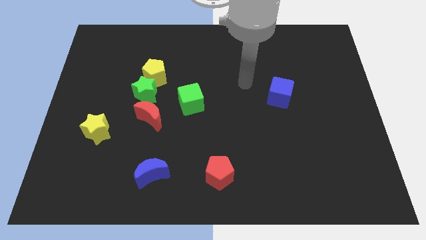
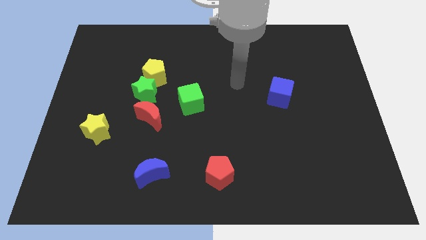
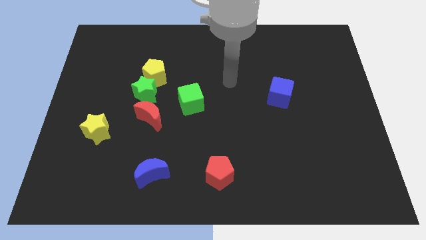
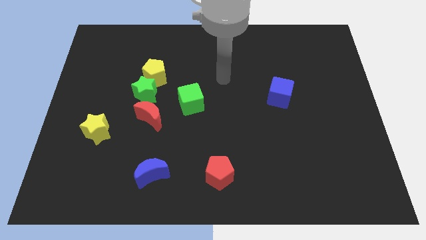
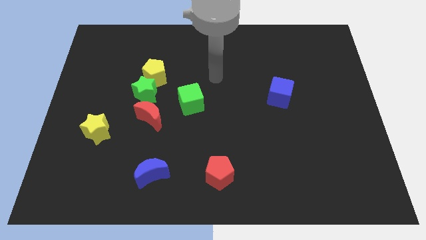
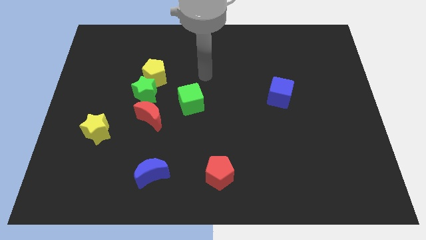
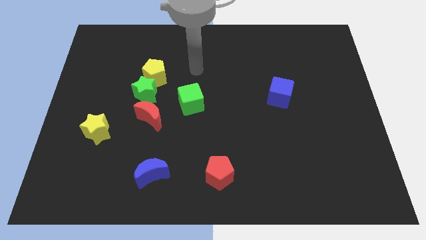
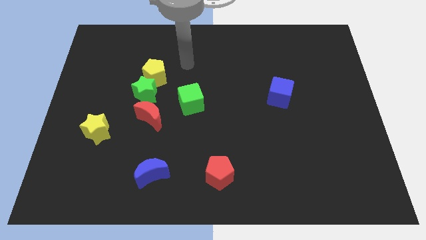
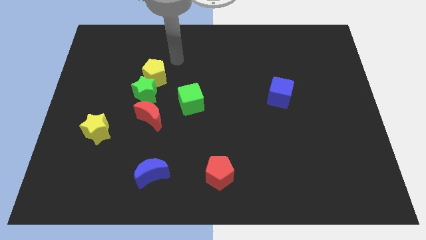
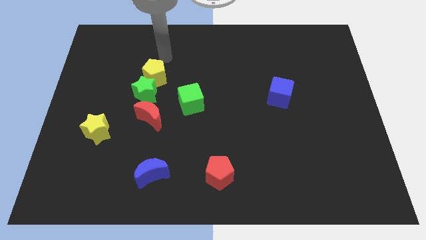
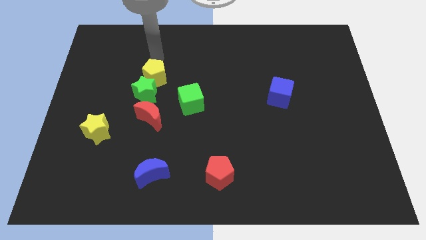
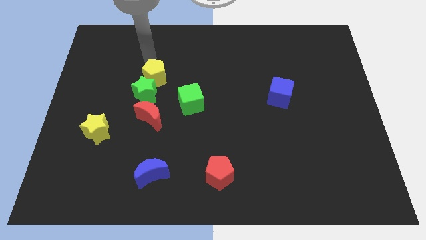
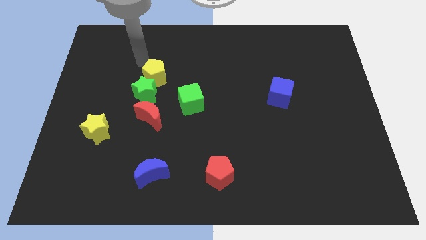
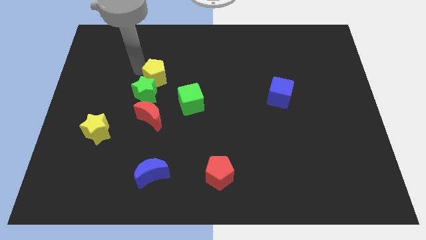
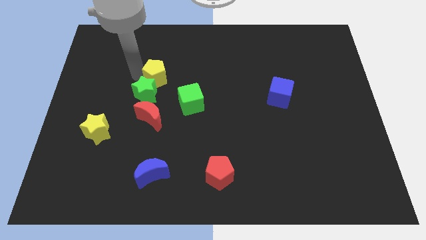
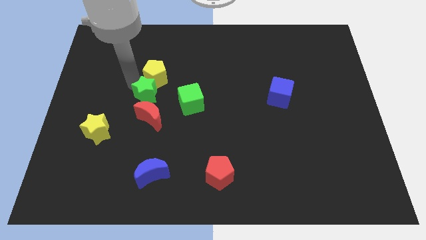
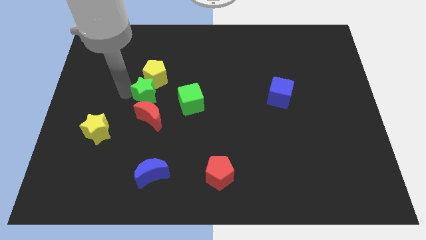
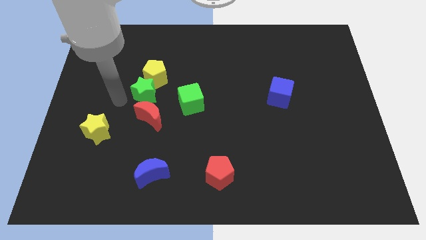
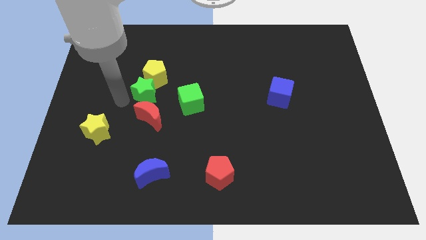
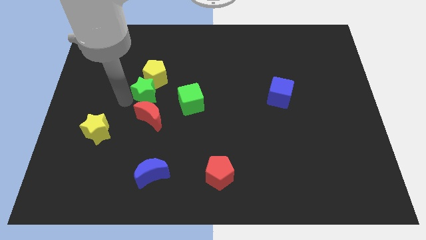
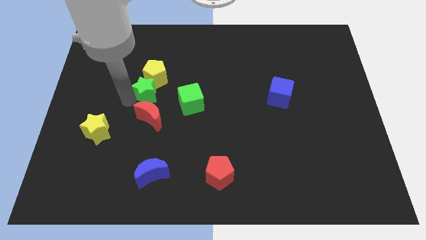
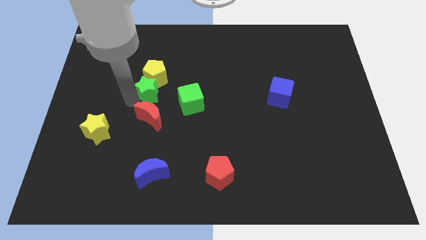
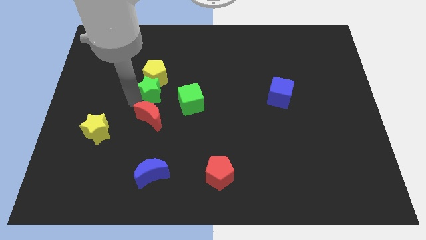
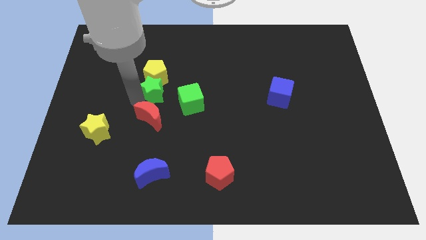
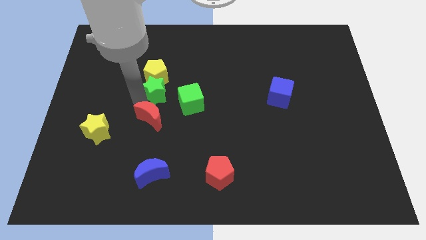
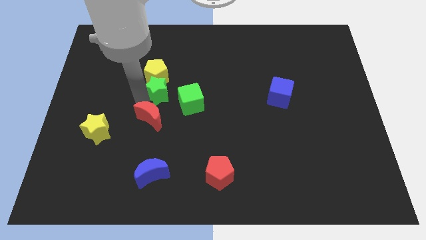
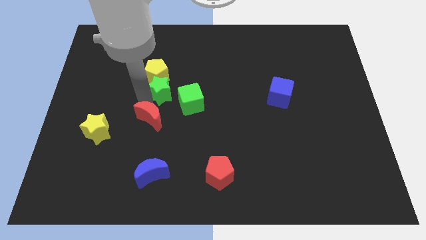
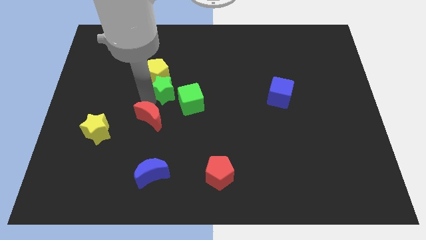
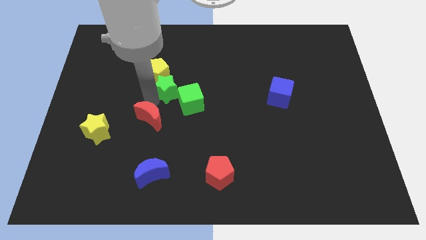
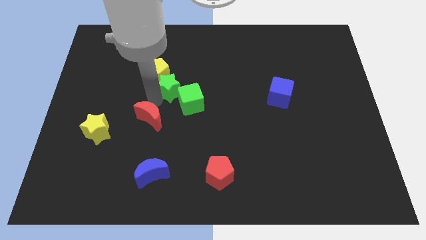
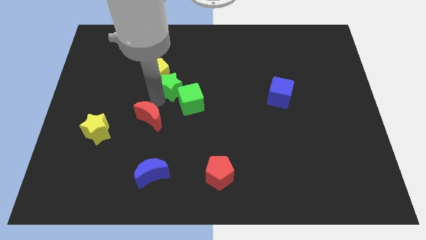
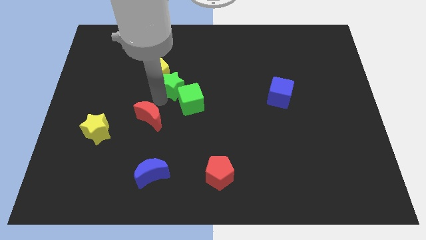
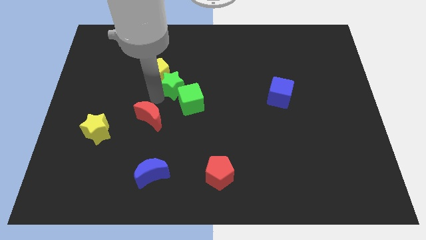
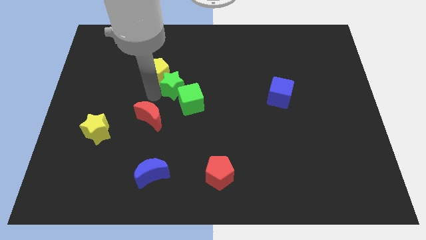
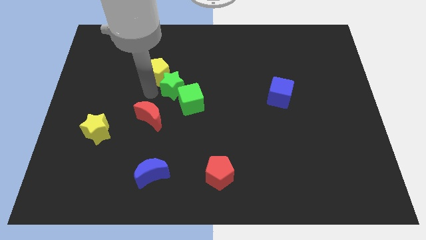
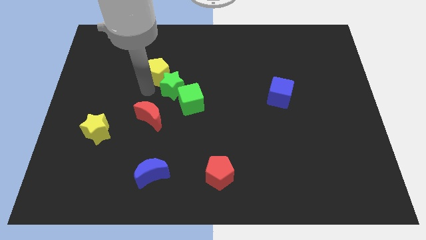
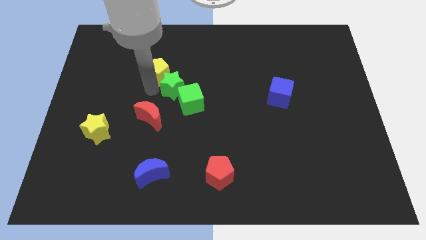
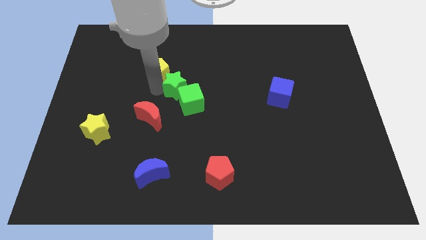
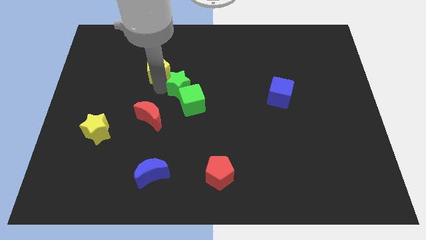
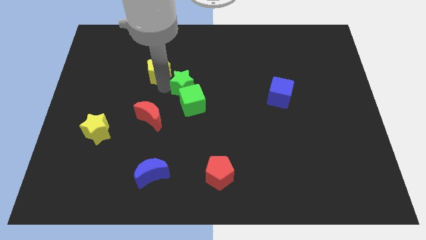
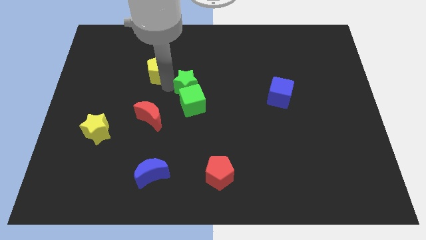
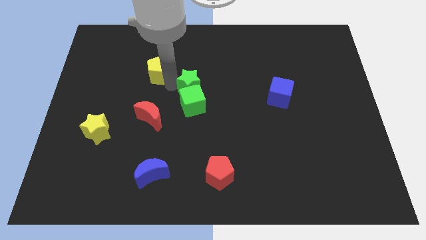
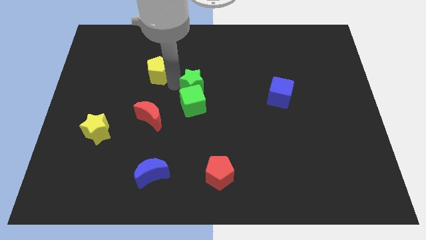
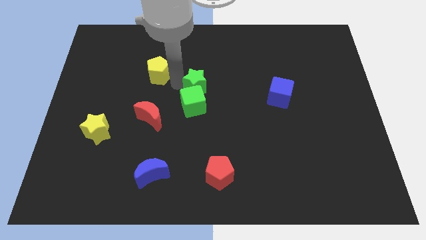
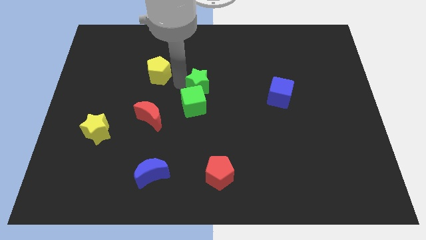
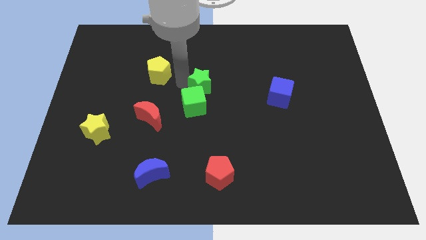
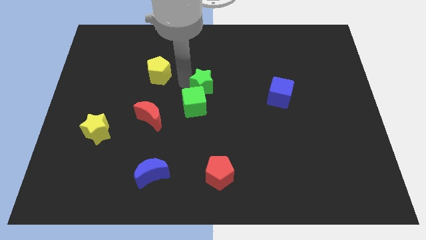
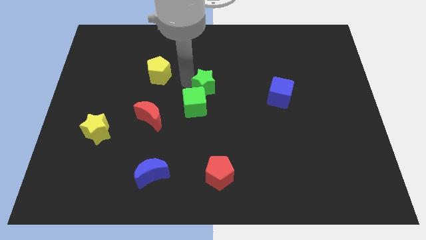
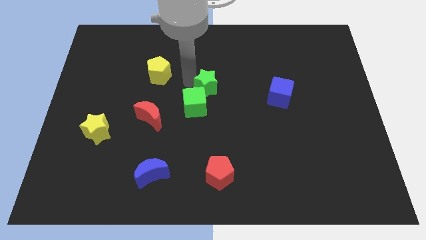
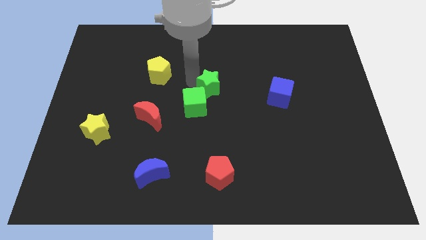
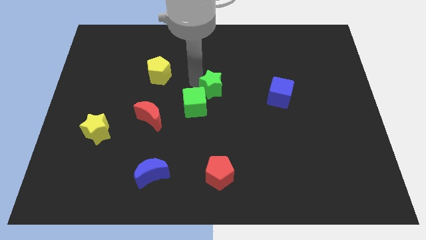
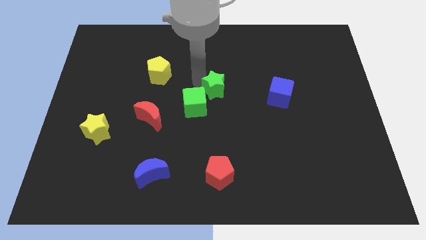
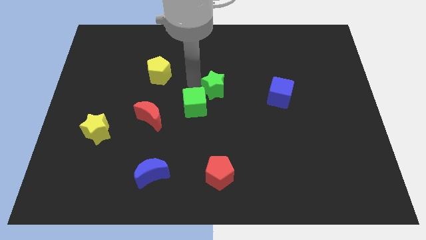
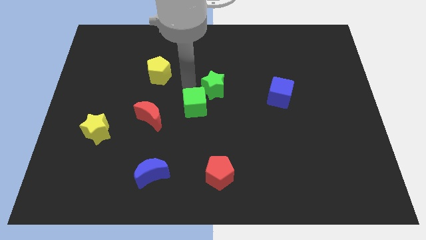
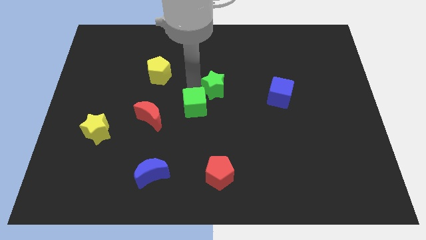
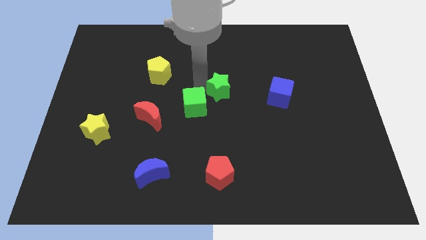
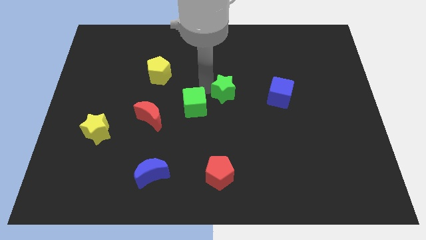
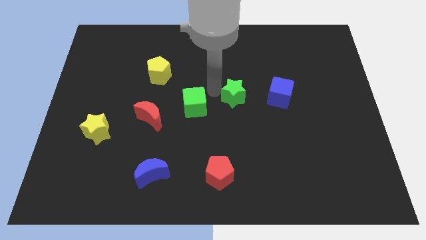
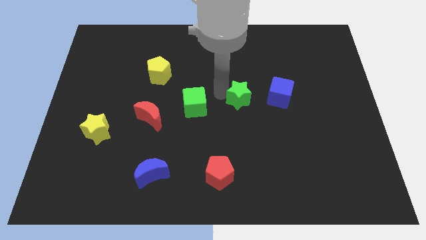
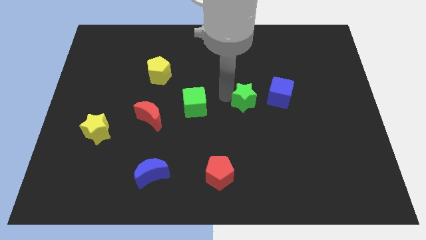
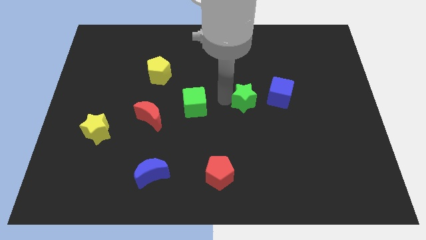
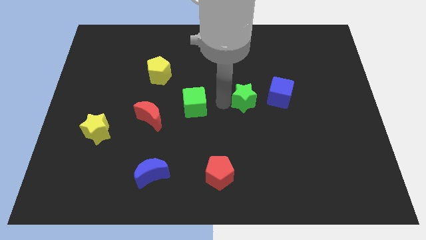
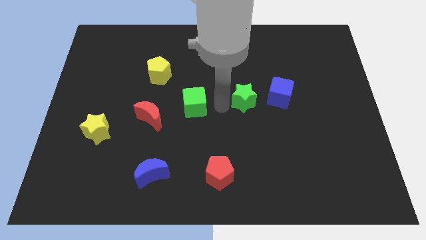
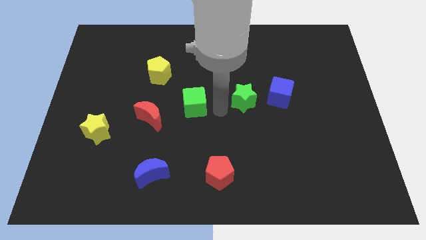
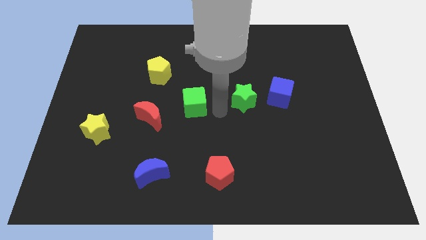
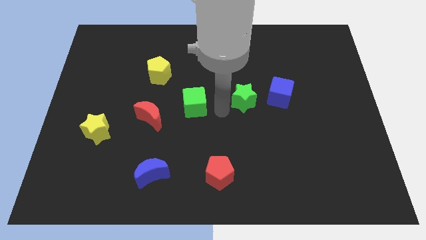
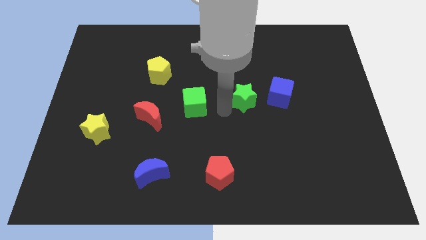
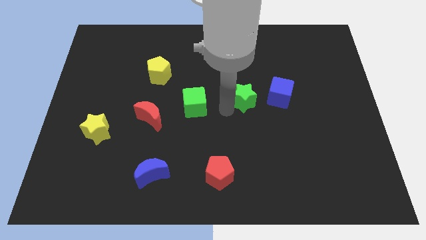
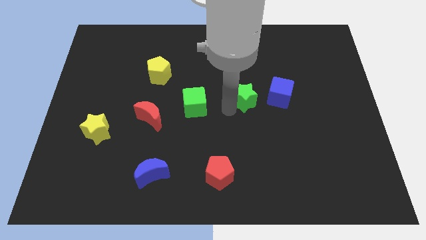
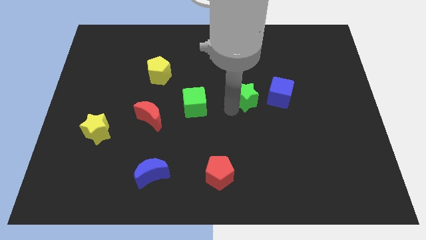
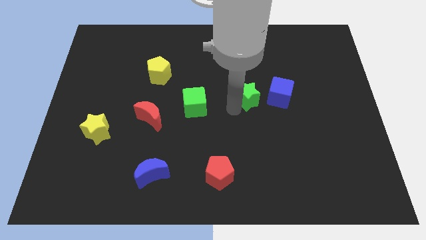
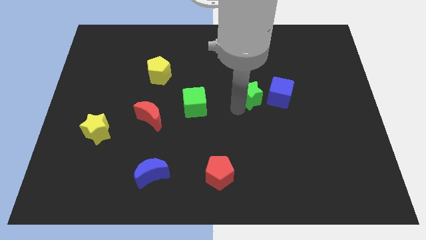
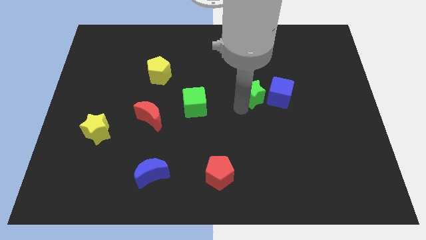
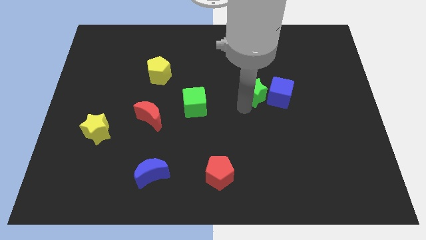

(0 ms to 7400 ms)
slide the green star to the blue cube

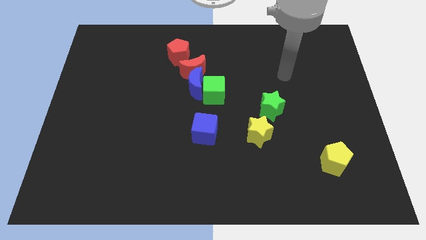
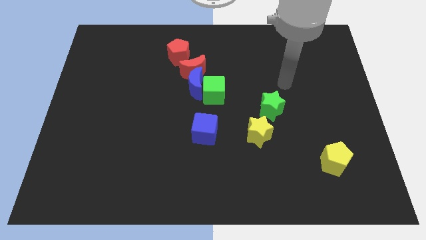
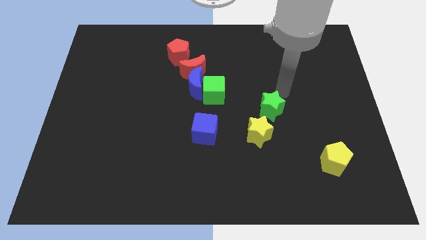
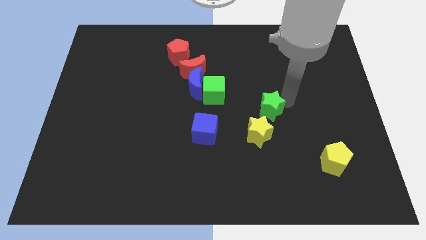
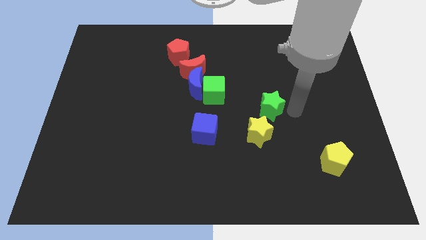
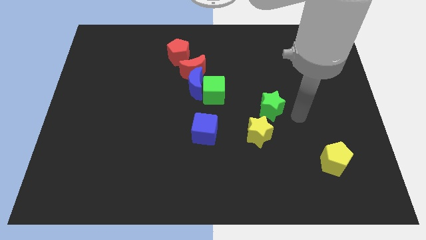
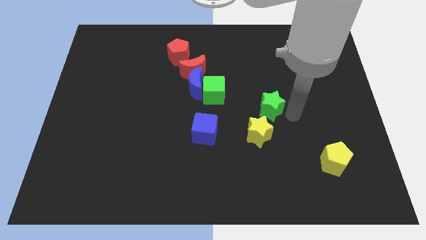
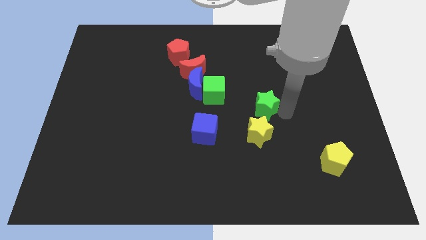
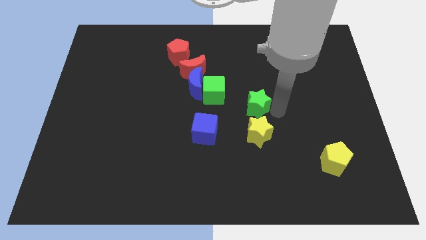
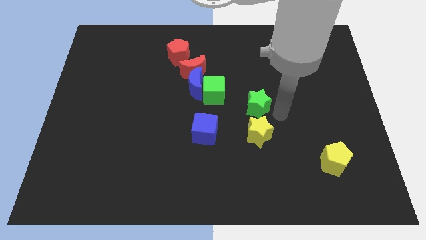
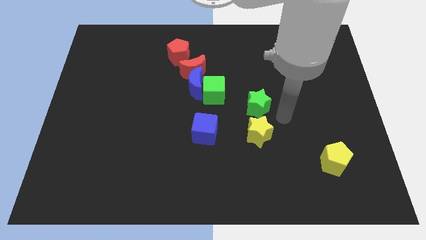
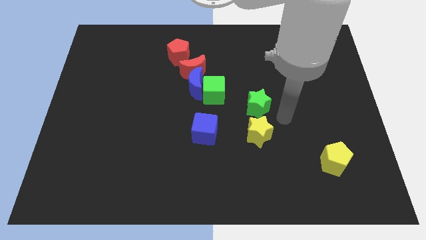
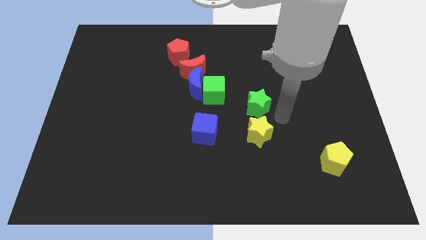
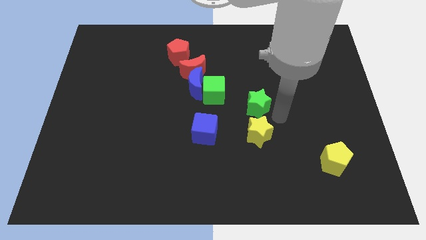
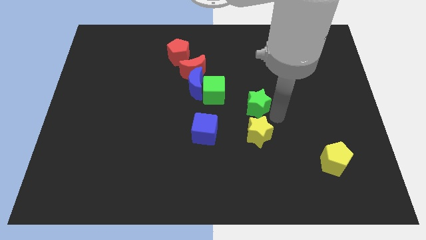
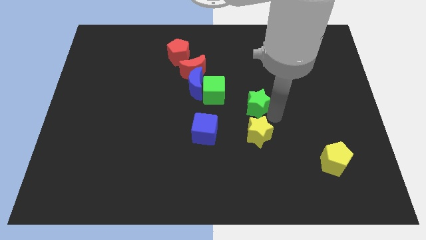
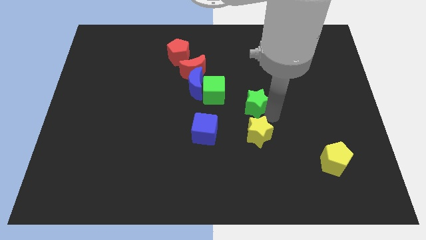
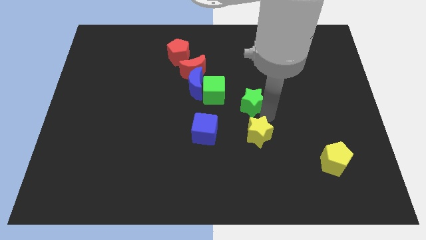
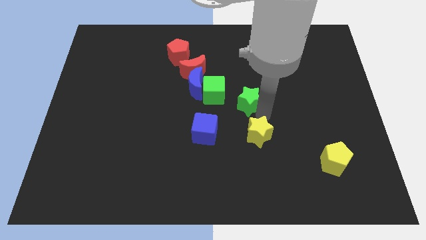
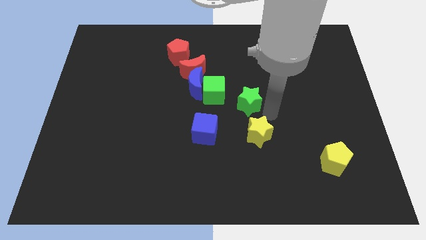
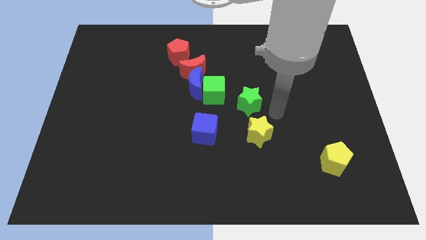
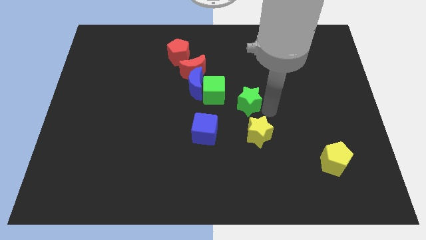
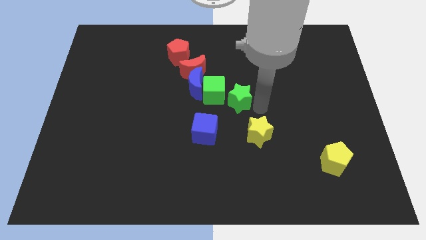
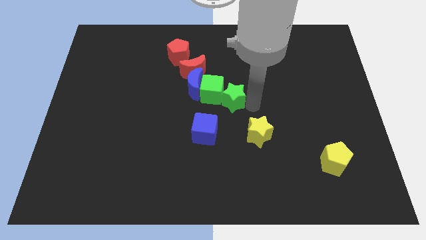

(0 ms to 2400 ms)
slide the green star next to the green cube
